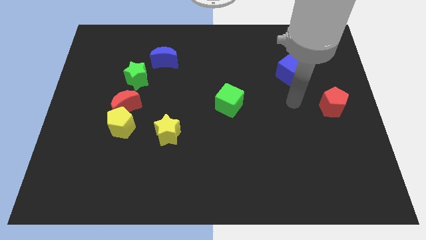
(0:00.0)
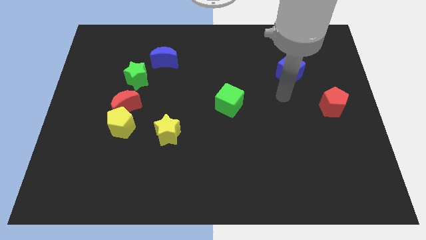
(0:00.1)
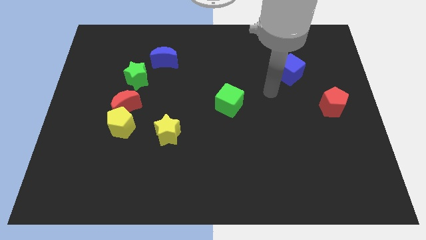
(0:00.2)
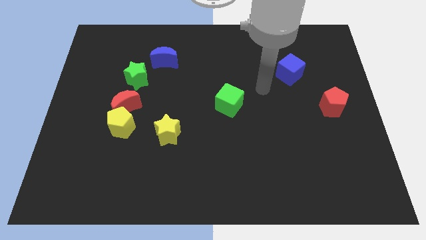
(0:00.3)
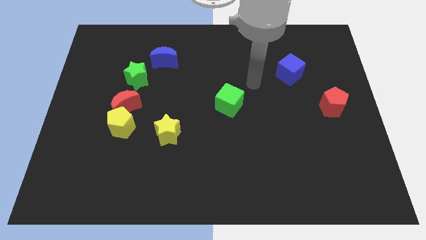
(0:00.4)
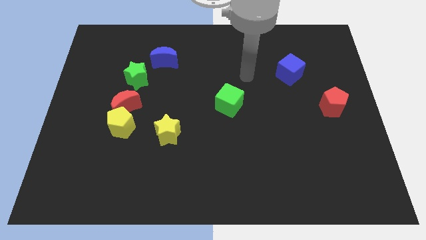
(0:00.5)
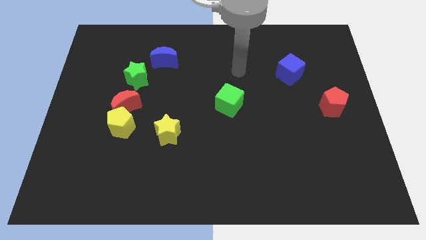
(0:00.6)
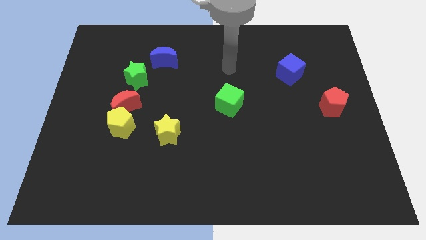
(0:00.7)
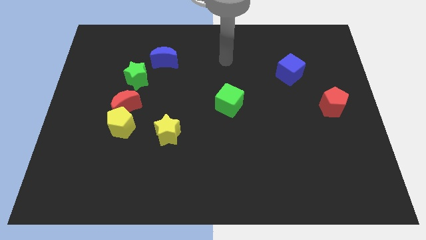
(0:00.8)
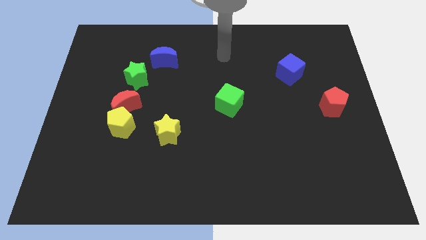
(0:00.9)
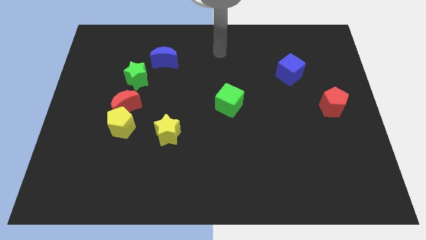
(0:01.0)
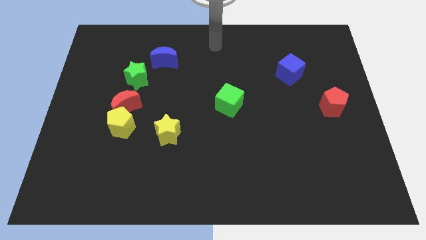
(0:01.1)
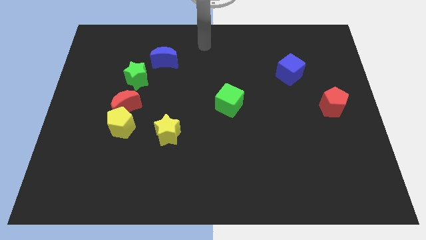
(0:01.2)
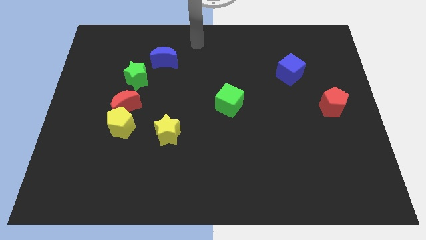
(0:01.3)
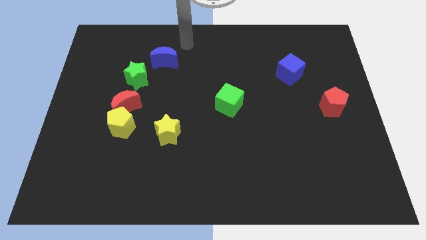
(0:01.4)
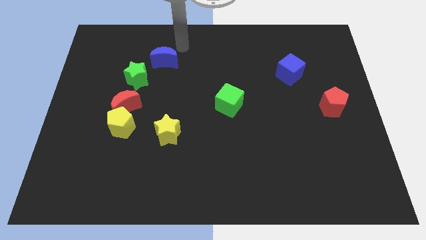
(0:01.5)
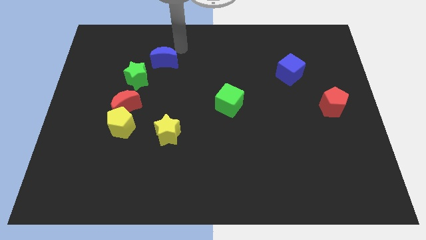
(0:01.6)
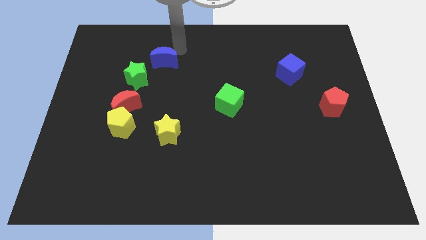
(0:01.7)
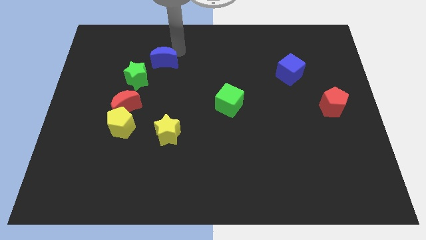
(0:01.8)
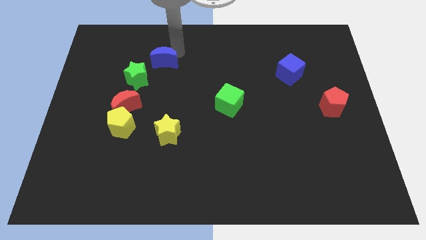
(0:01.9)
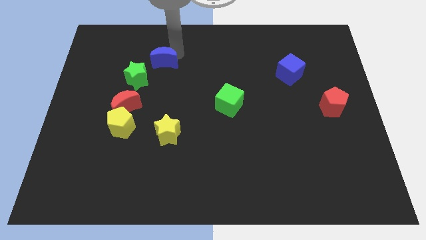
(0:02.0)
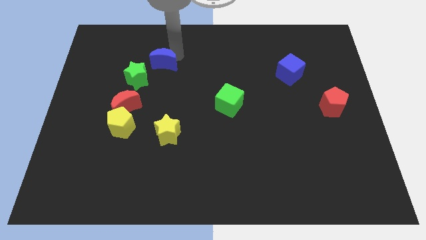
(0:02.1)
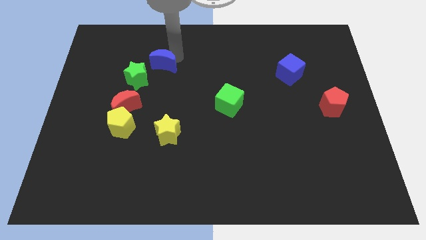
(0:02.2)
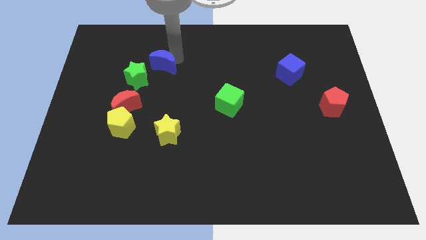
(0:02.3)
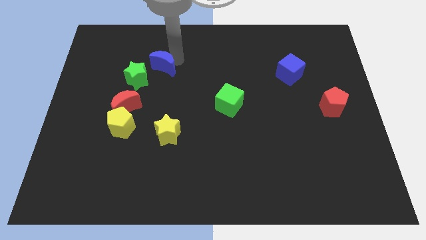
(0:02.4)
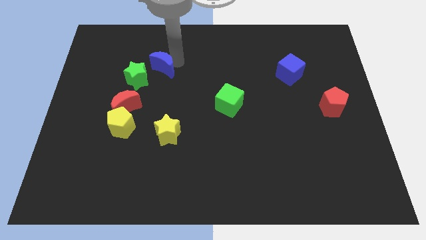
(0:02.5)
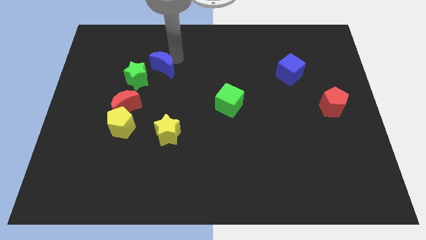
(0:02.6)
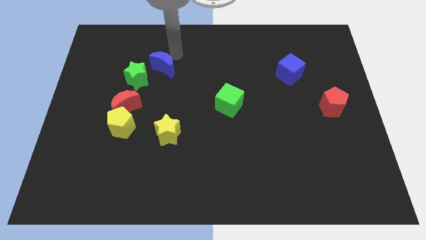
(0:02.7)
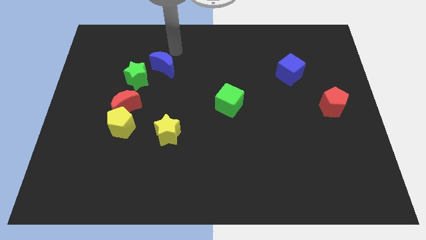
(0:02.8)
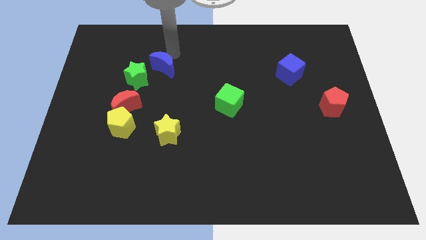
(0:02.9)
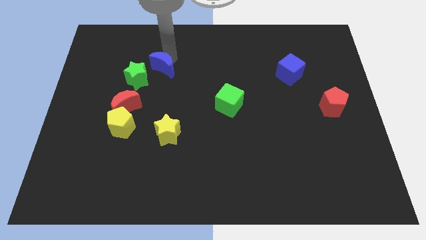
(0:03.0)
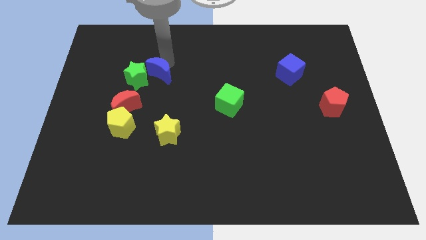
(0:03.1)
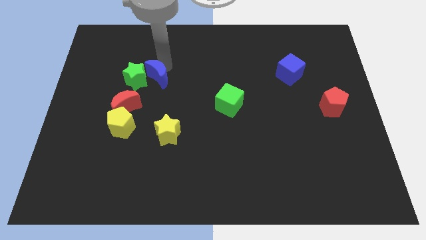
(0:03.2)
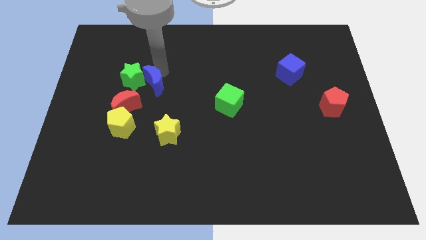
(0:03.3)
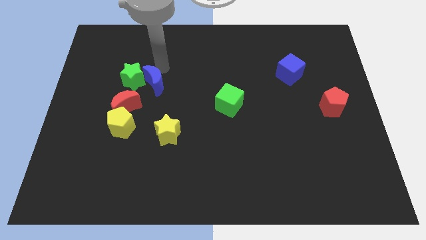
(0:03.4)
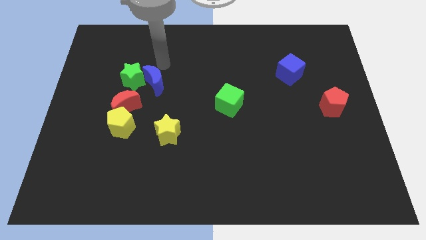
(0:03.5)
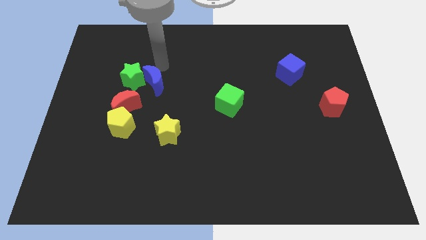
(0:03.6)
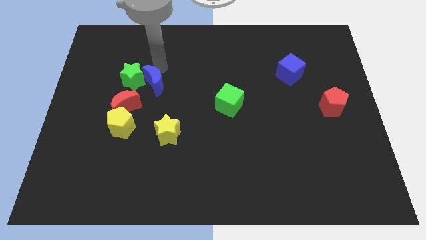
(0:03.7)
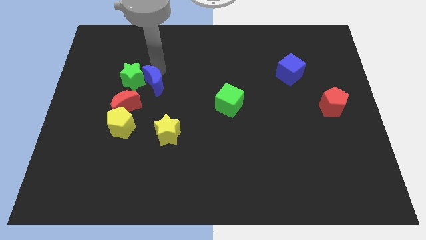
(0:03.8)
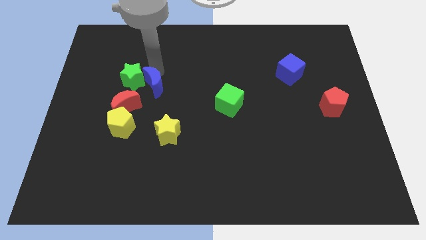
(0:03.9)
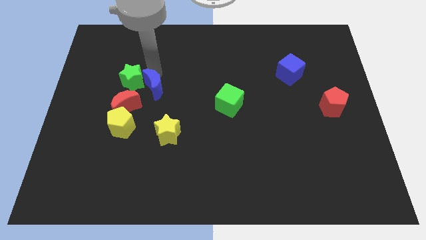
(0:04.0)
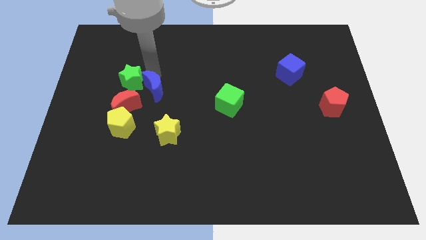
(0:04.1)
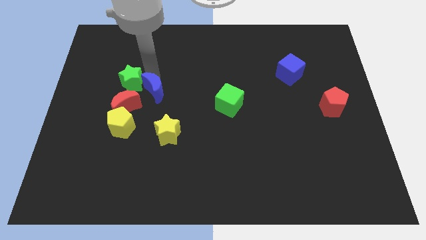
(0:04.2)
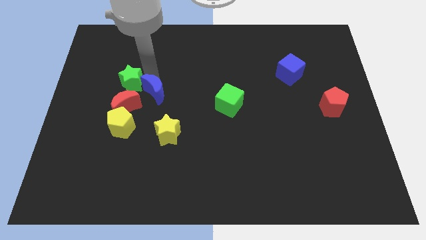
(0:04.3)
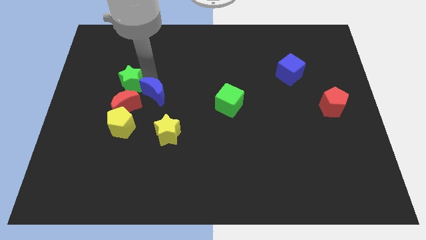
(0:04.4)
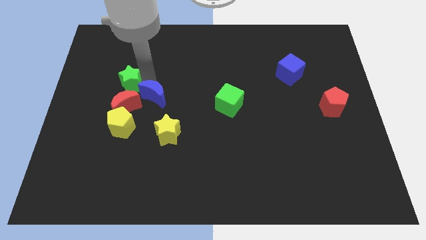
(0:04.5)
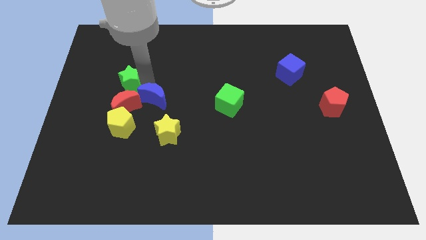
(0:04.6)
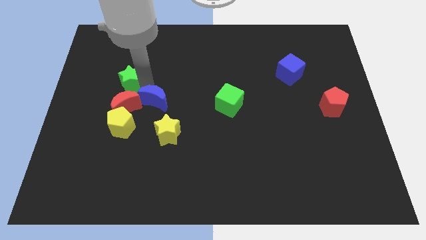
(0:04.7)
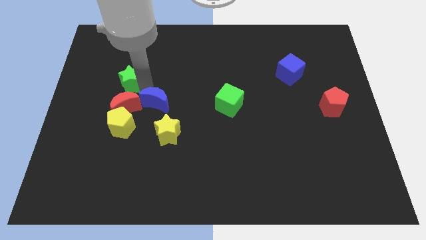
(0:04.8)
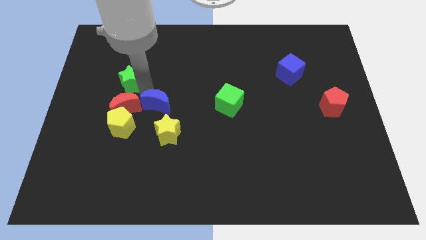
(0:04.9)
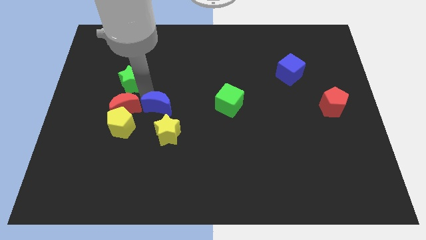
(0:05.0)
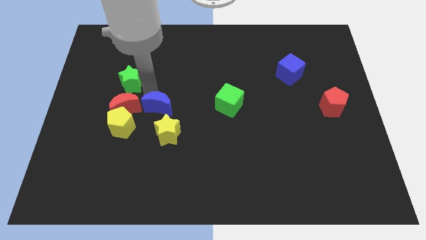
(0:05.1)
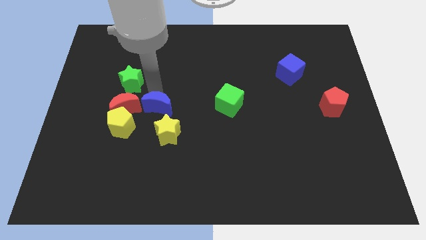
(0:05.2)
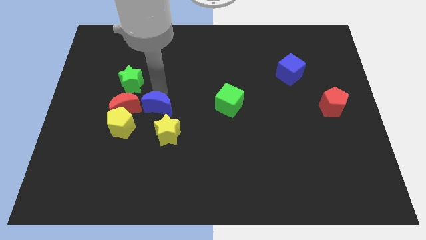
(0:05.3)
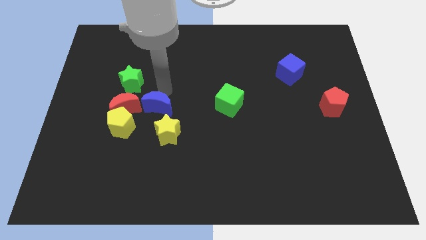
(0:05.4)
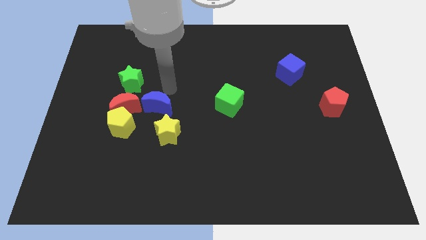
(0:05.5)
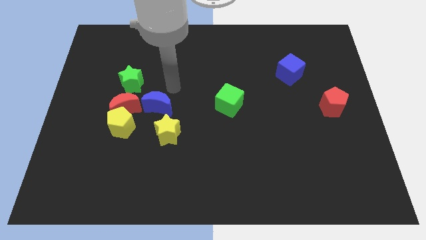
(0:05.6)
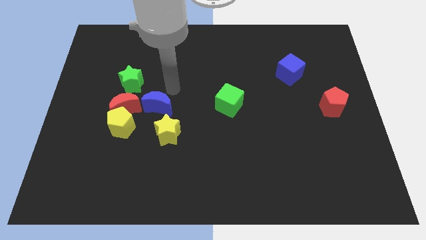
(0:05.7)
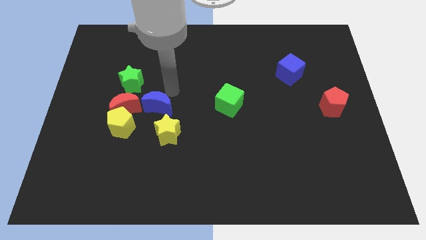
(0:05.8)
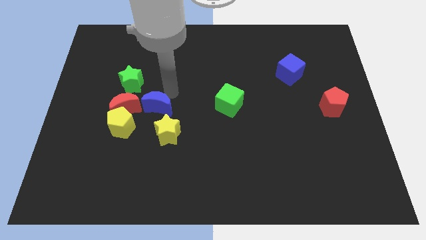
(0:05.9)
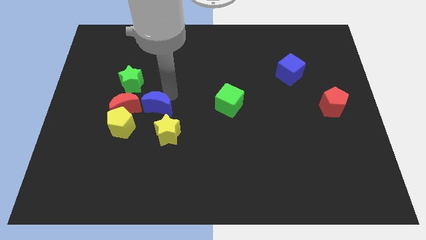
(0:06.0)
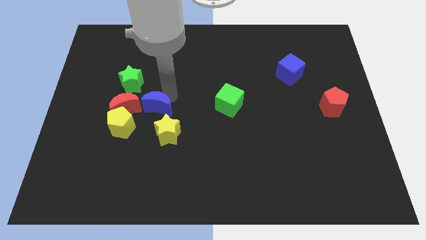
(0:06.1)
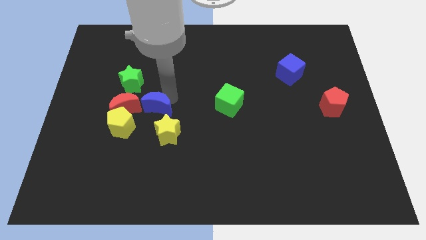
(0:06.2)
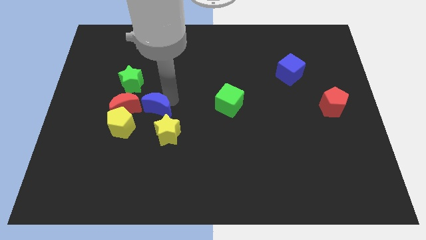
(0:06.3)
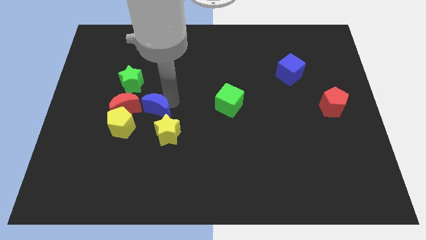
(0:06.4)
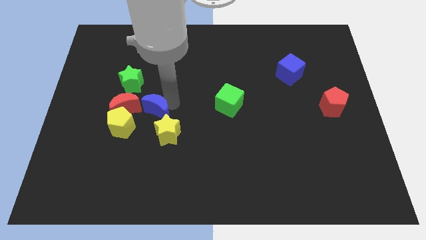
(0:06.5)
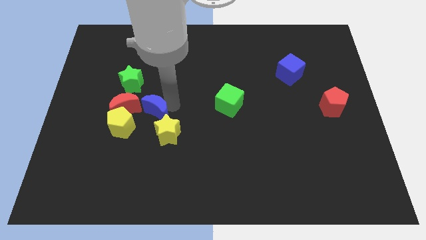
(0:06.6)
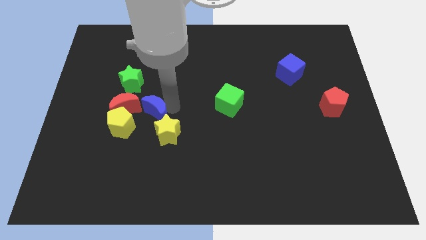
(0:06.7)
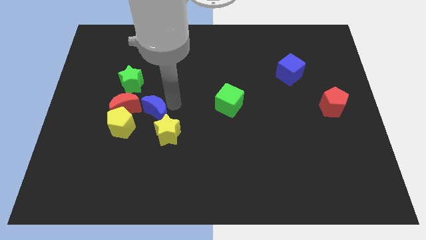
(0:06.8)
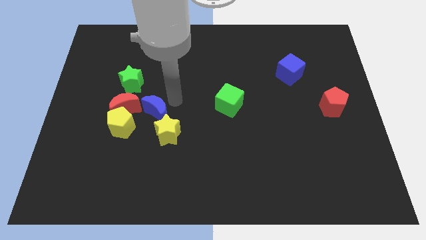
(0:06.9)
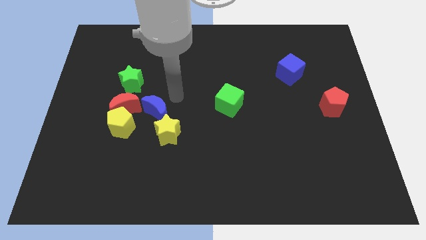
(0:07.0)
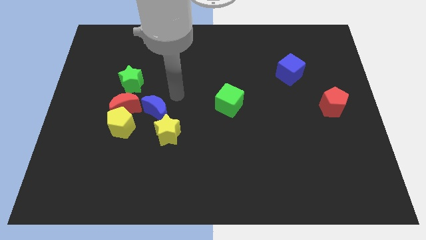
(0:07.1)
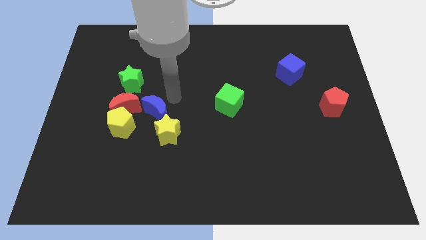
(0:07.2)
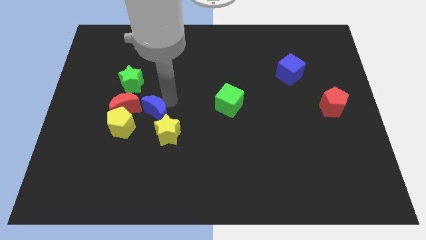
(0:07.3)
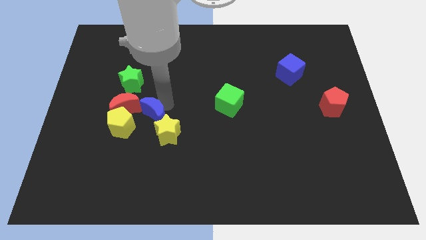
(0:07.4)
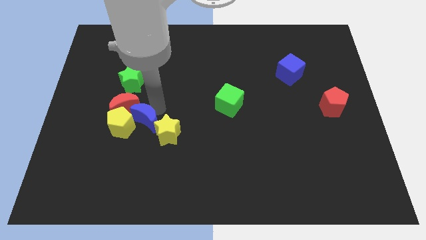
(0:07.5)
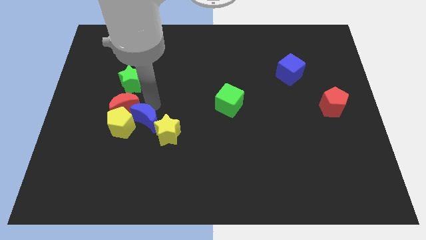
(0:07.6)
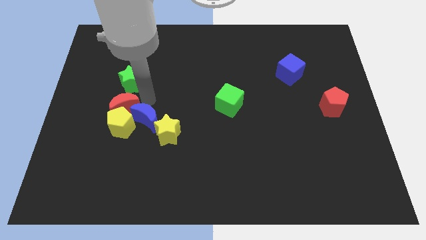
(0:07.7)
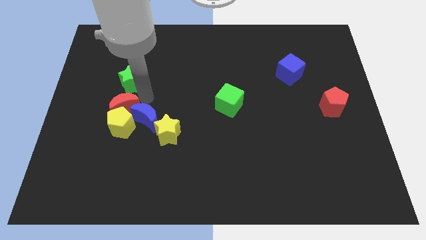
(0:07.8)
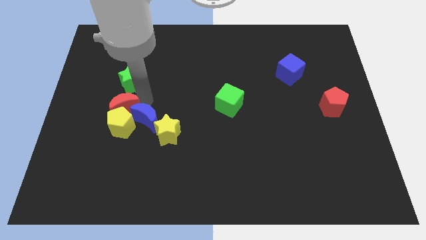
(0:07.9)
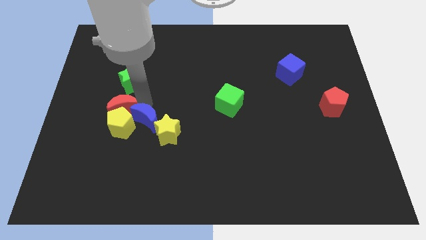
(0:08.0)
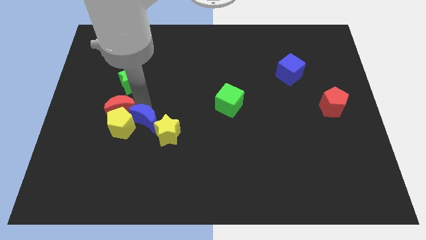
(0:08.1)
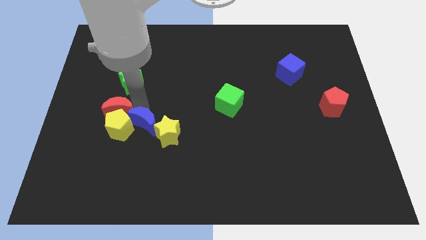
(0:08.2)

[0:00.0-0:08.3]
move the blue moon down
